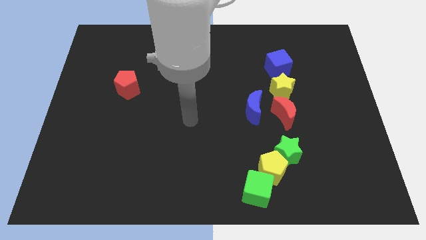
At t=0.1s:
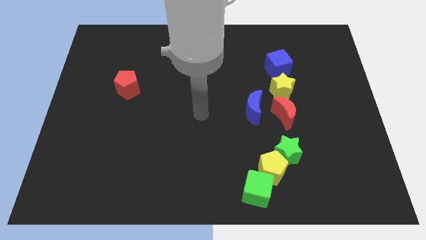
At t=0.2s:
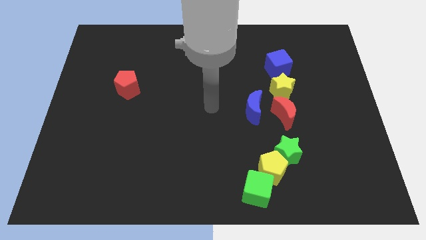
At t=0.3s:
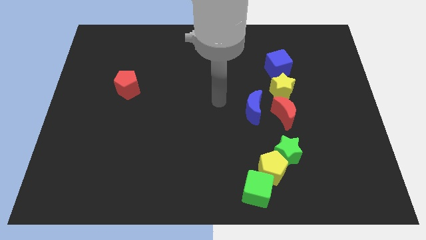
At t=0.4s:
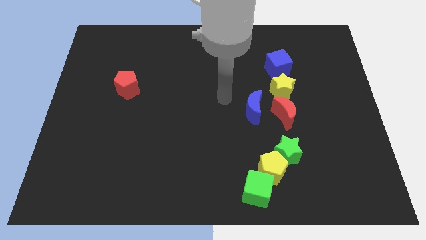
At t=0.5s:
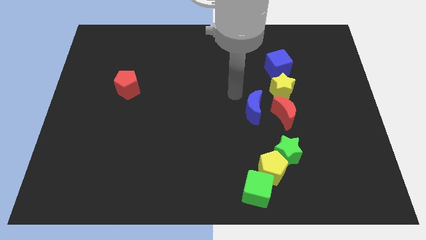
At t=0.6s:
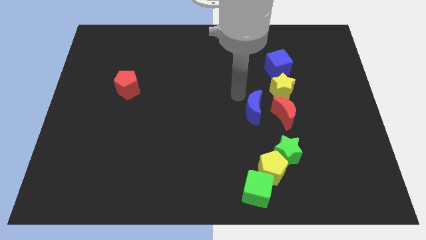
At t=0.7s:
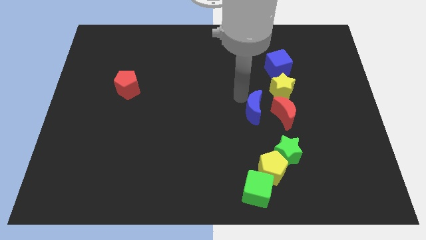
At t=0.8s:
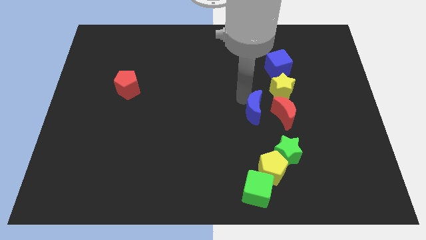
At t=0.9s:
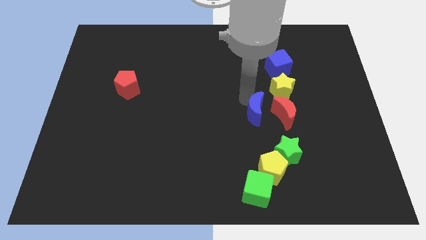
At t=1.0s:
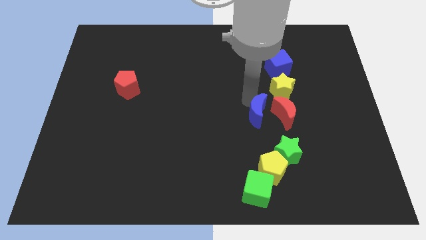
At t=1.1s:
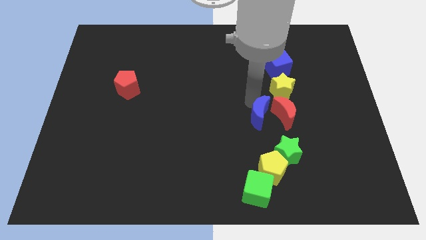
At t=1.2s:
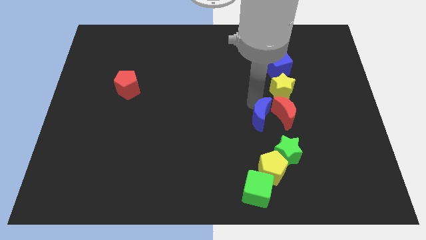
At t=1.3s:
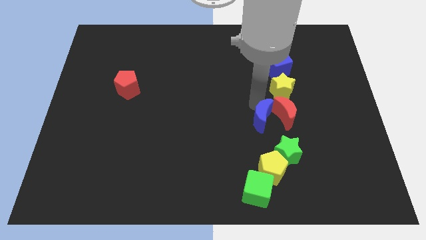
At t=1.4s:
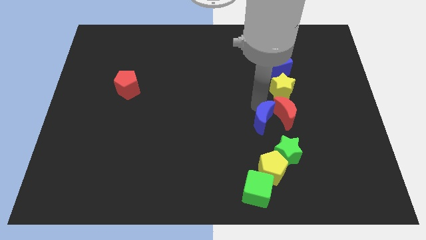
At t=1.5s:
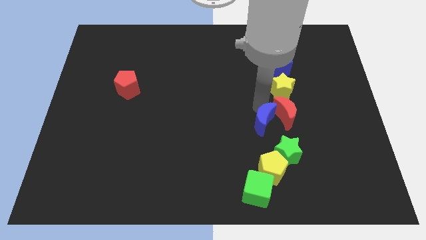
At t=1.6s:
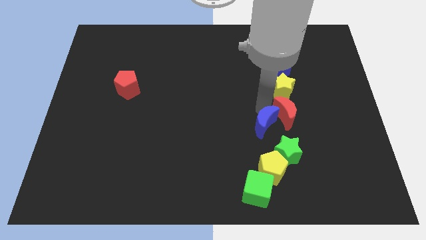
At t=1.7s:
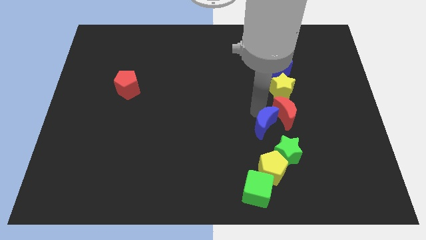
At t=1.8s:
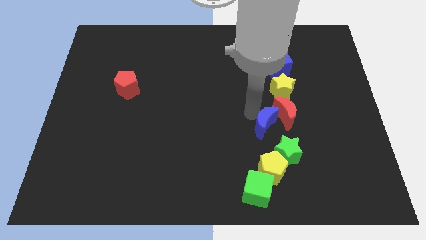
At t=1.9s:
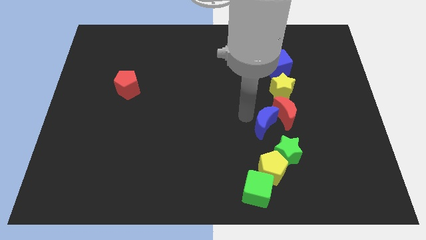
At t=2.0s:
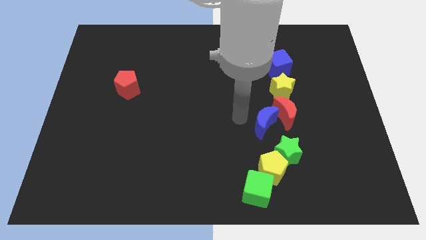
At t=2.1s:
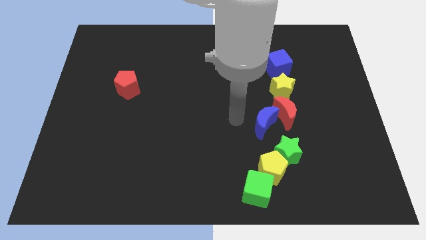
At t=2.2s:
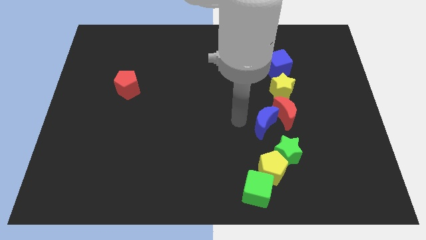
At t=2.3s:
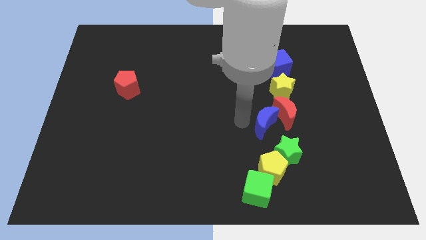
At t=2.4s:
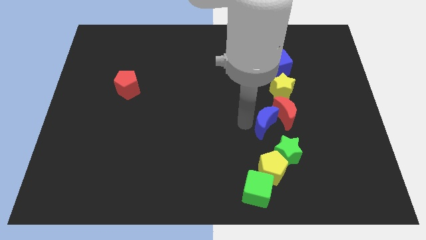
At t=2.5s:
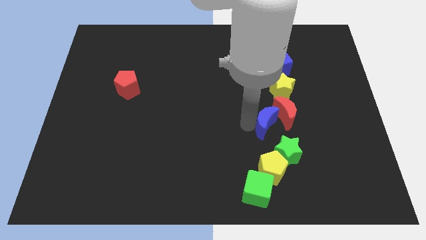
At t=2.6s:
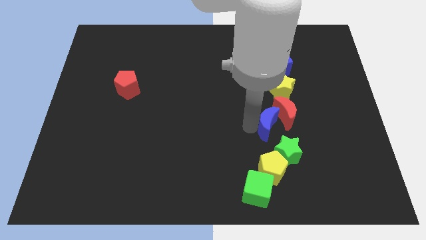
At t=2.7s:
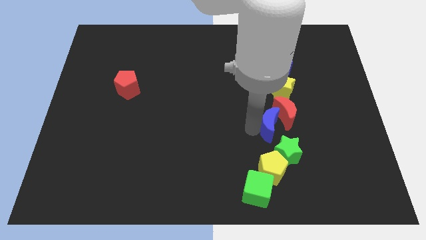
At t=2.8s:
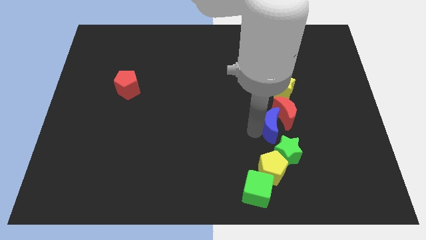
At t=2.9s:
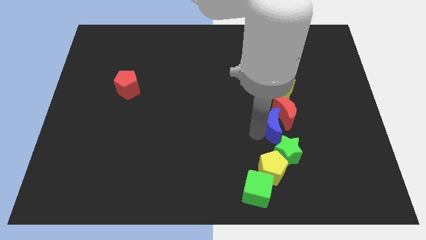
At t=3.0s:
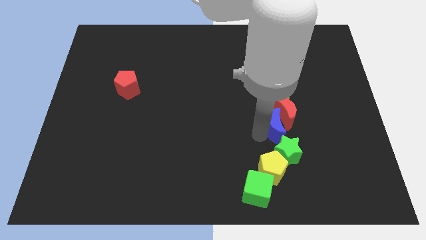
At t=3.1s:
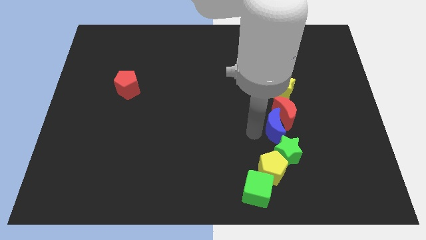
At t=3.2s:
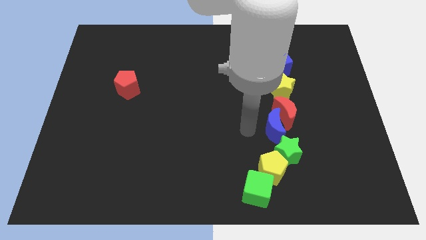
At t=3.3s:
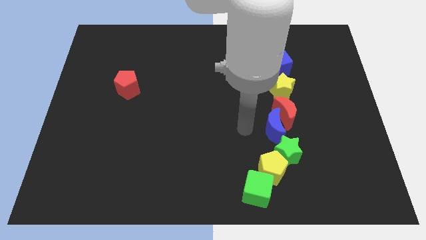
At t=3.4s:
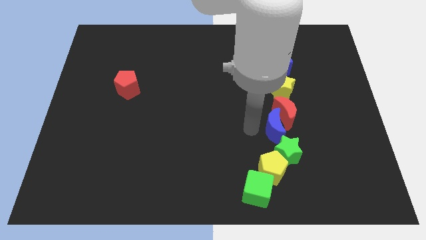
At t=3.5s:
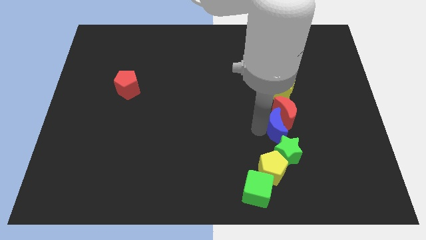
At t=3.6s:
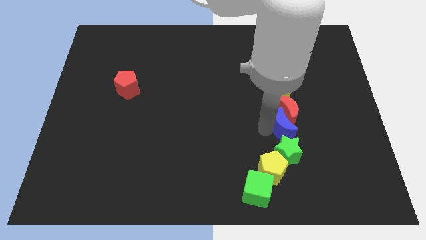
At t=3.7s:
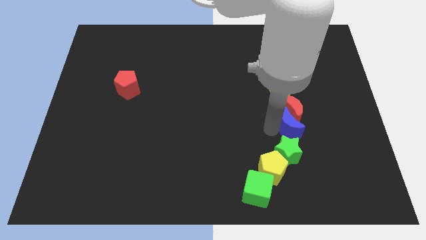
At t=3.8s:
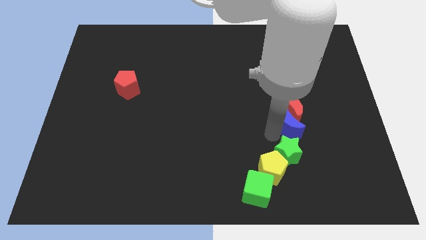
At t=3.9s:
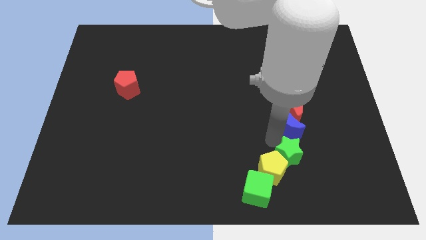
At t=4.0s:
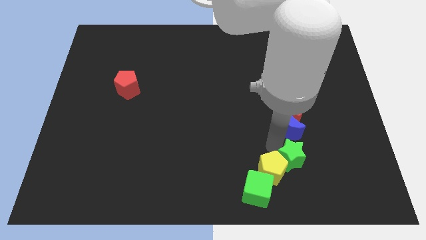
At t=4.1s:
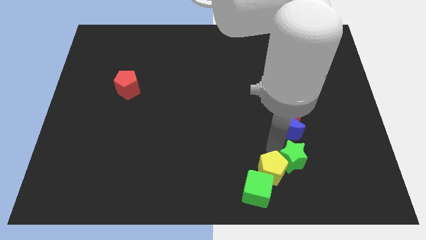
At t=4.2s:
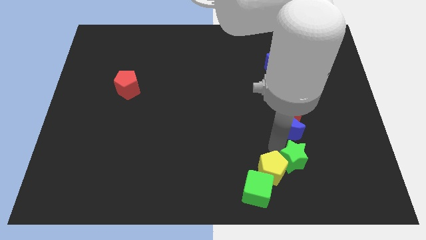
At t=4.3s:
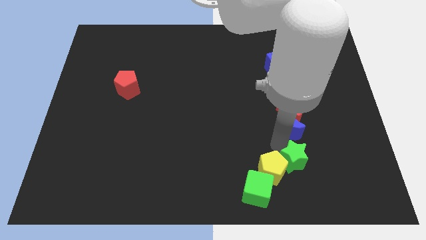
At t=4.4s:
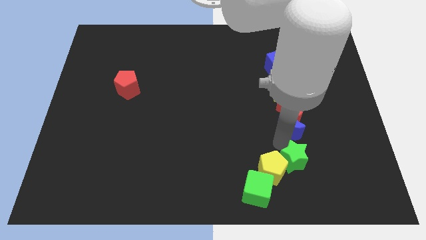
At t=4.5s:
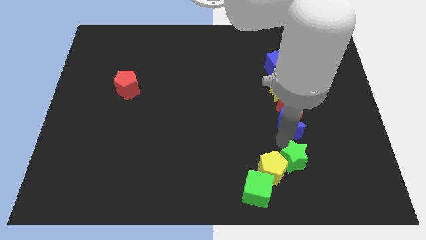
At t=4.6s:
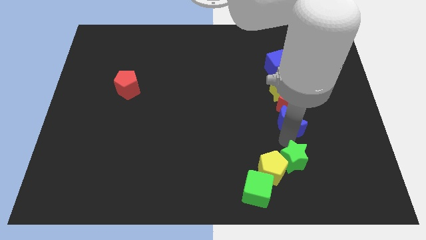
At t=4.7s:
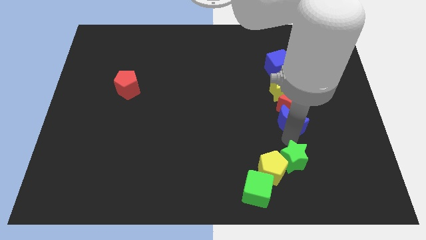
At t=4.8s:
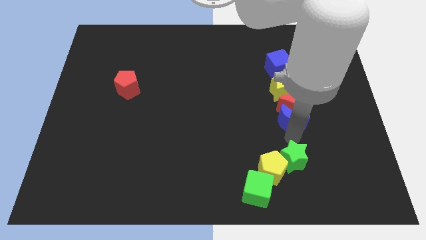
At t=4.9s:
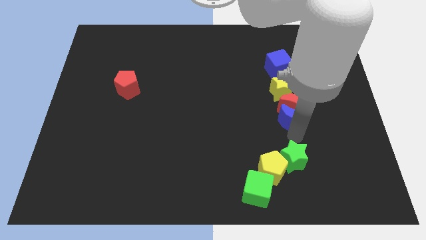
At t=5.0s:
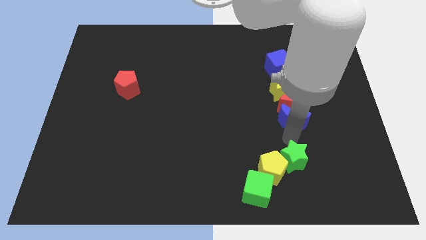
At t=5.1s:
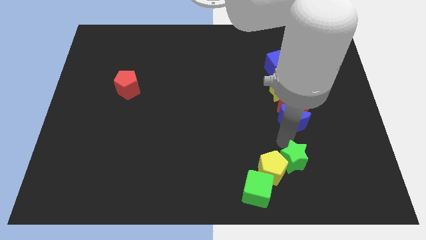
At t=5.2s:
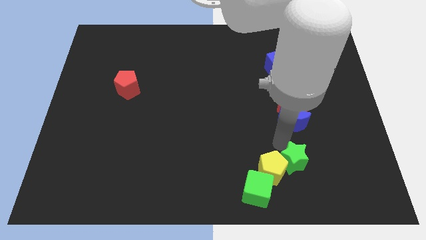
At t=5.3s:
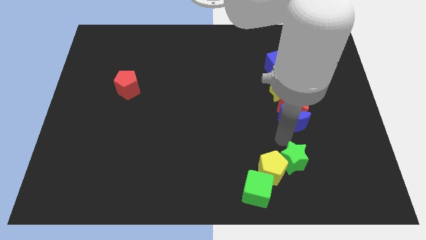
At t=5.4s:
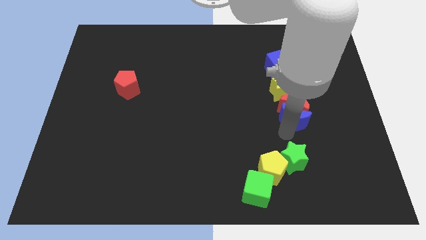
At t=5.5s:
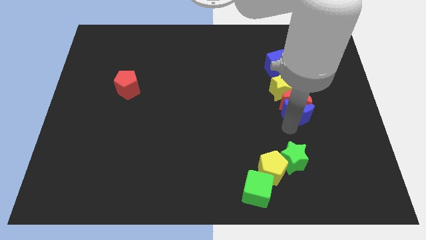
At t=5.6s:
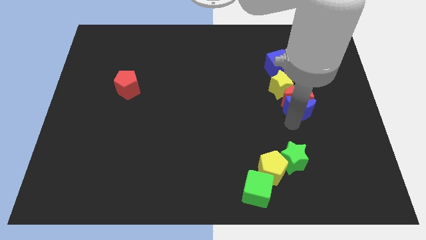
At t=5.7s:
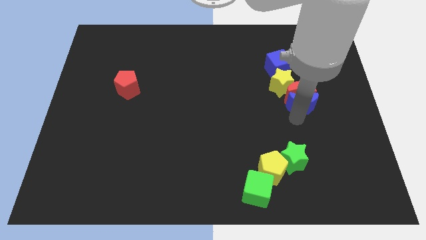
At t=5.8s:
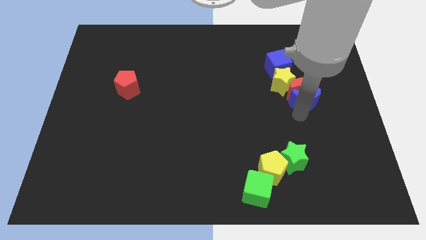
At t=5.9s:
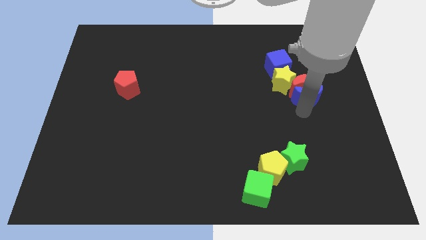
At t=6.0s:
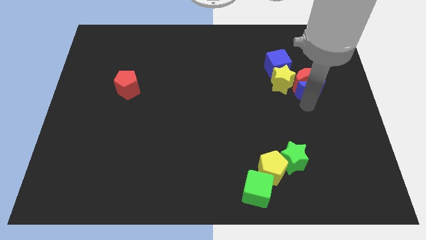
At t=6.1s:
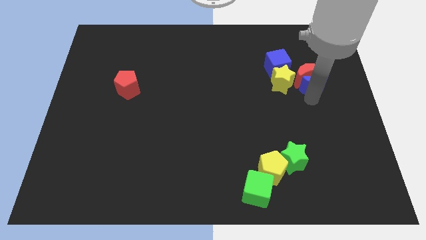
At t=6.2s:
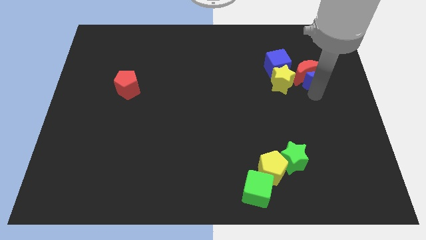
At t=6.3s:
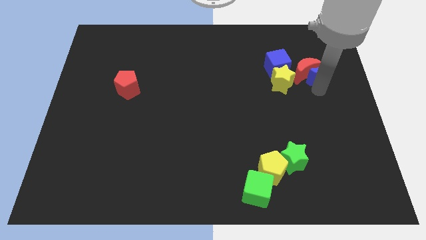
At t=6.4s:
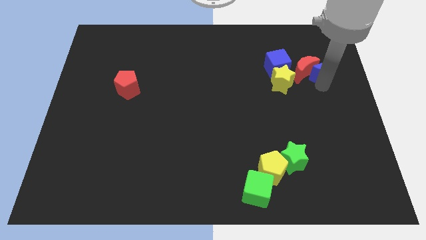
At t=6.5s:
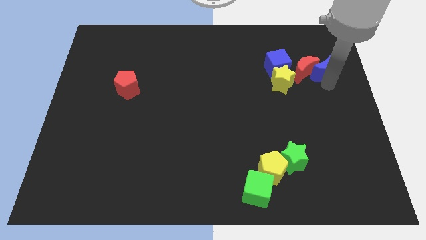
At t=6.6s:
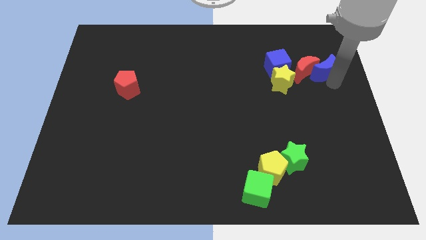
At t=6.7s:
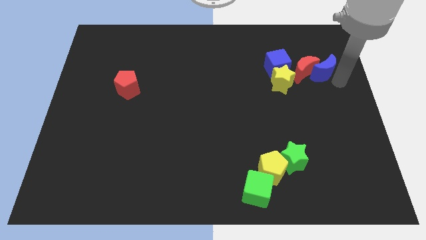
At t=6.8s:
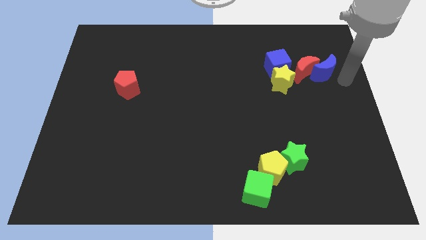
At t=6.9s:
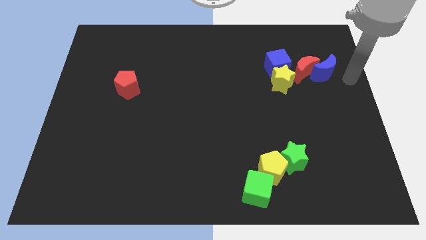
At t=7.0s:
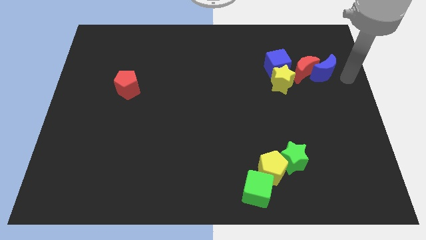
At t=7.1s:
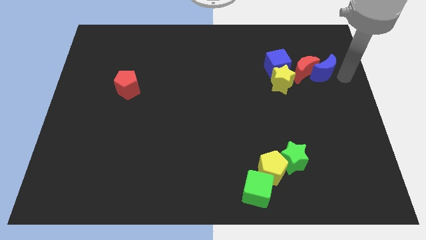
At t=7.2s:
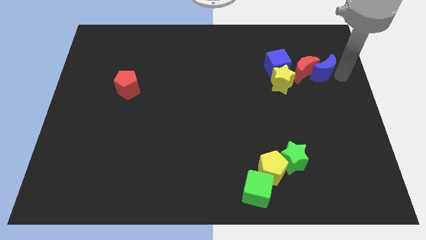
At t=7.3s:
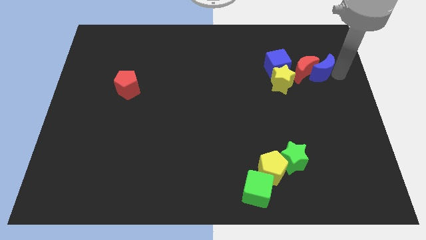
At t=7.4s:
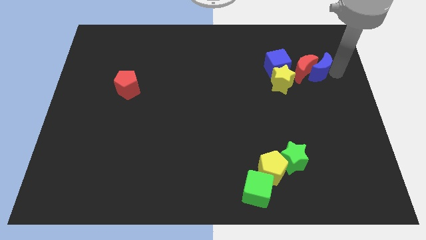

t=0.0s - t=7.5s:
slide the blue moon diagonally up and to the right of the yellow star
